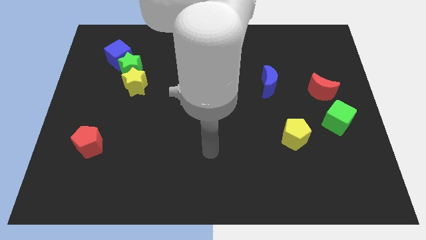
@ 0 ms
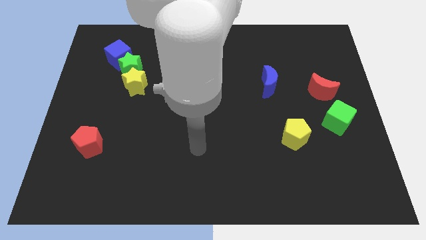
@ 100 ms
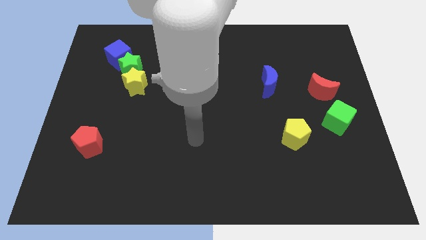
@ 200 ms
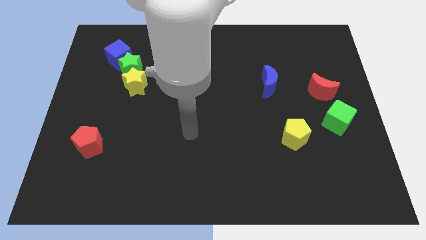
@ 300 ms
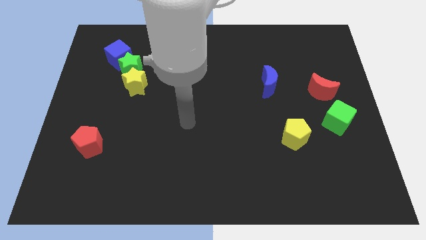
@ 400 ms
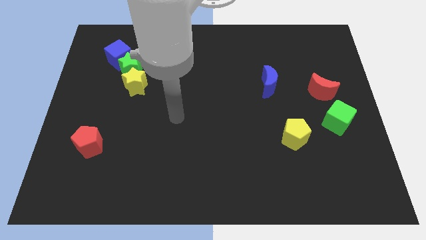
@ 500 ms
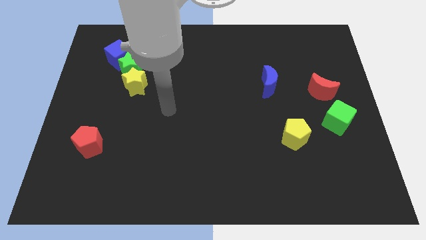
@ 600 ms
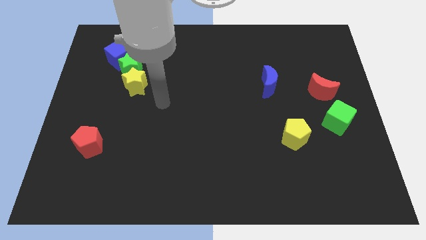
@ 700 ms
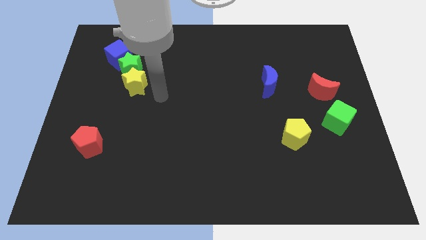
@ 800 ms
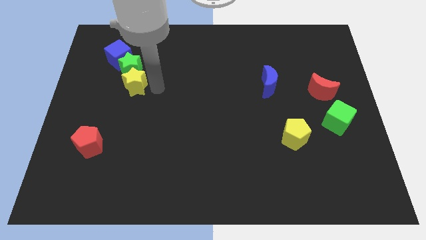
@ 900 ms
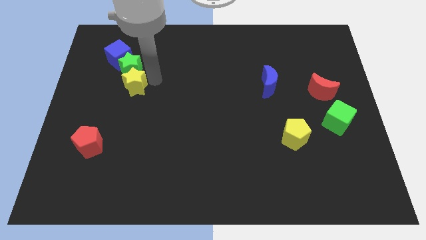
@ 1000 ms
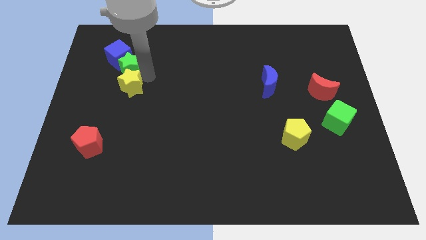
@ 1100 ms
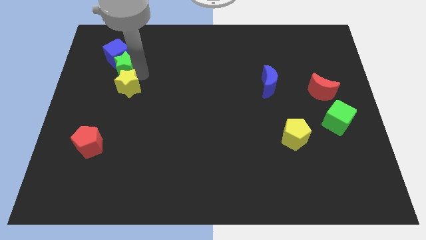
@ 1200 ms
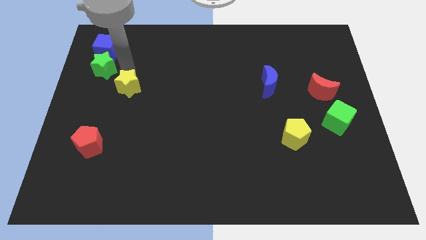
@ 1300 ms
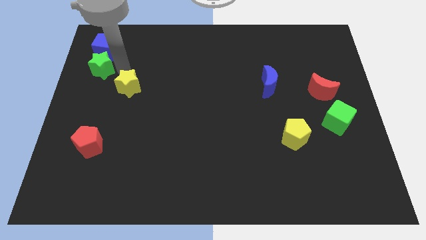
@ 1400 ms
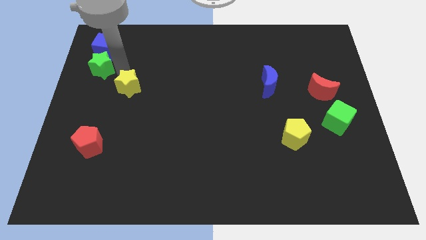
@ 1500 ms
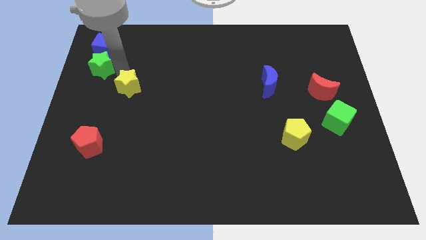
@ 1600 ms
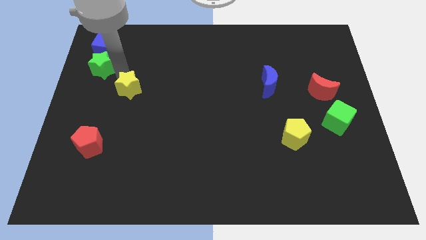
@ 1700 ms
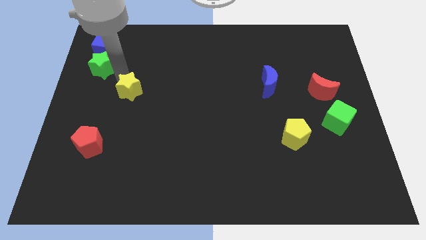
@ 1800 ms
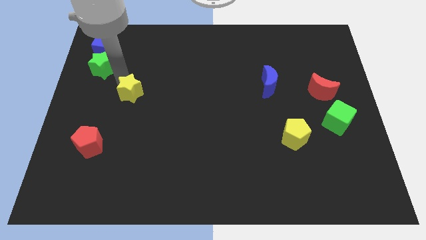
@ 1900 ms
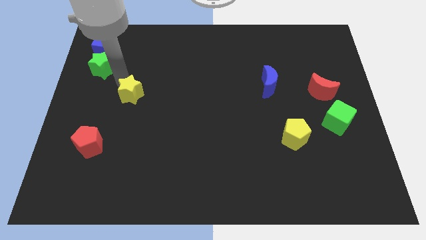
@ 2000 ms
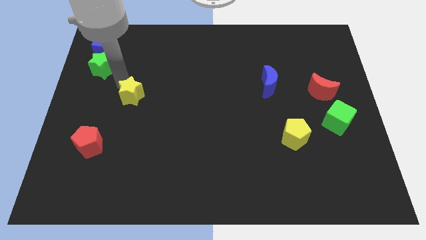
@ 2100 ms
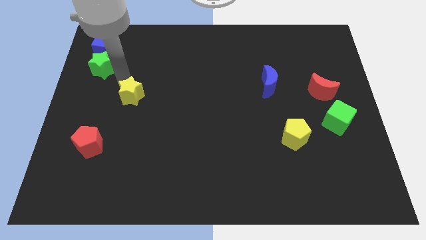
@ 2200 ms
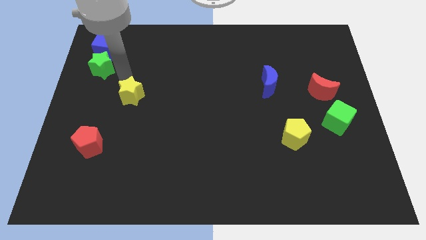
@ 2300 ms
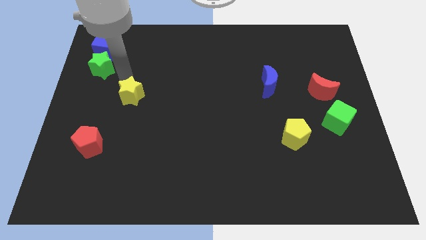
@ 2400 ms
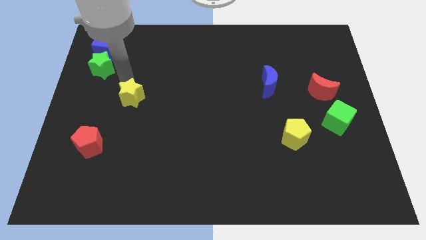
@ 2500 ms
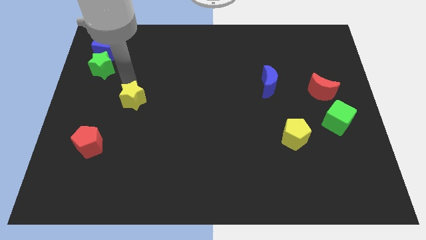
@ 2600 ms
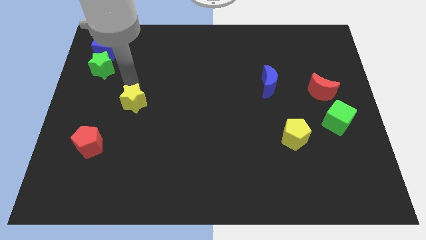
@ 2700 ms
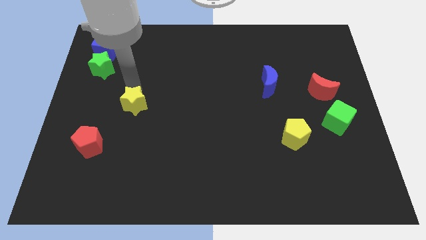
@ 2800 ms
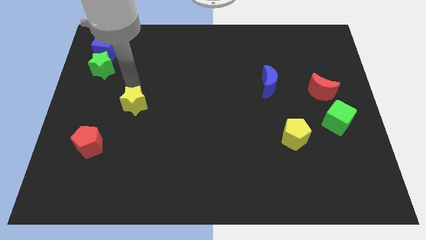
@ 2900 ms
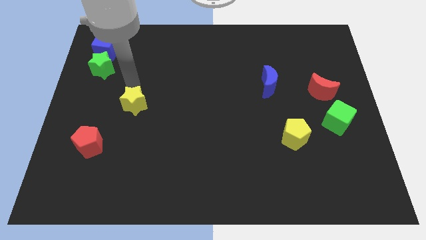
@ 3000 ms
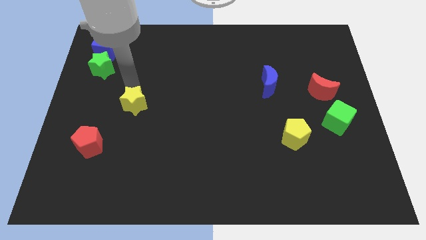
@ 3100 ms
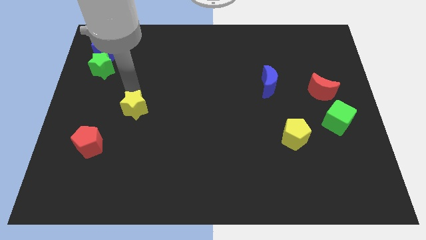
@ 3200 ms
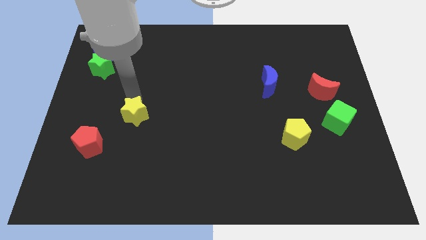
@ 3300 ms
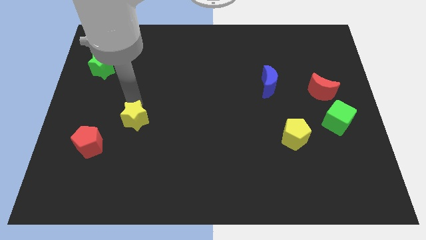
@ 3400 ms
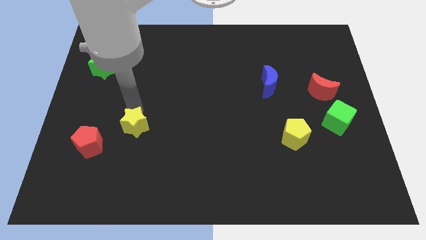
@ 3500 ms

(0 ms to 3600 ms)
move the yellow star just right of the red pentagon

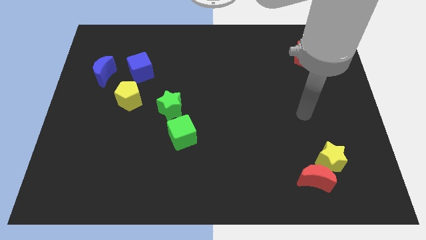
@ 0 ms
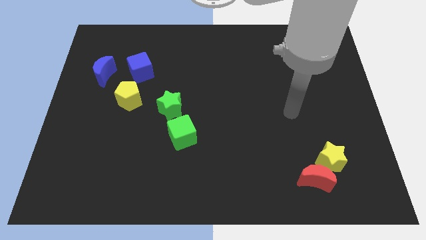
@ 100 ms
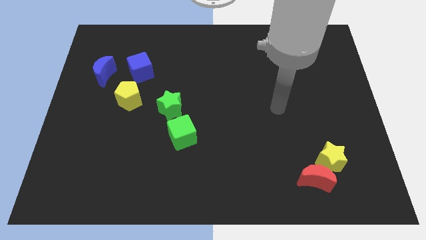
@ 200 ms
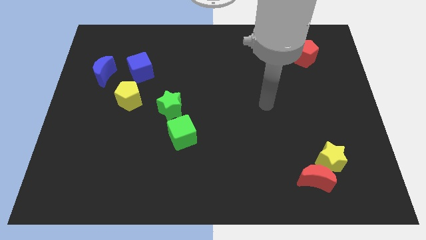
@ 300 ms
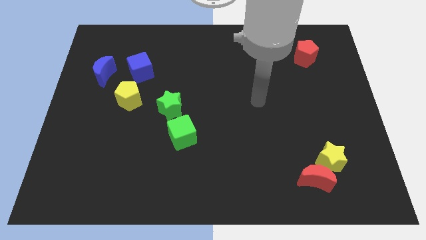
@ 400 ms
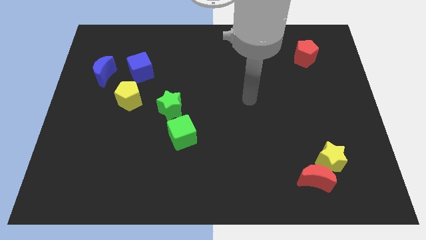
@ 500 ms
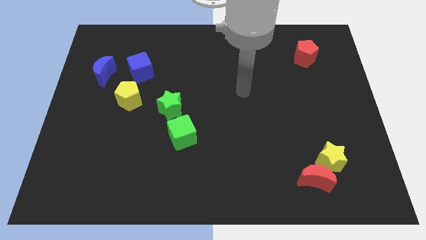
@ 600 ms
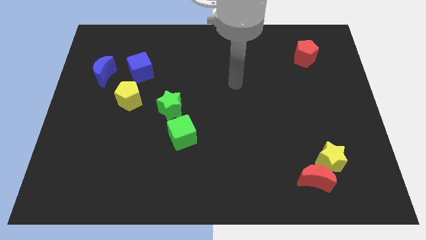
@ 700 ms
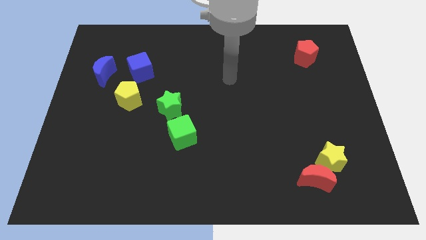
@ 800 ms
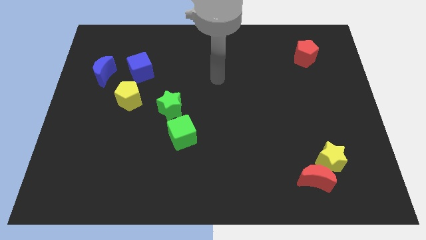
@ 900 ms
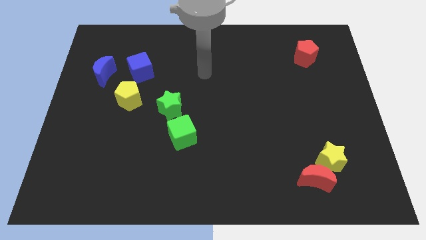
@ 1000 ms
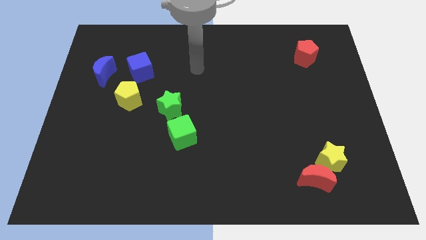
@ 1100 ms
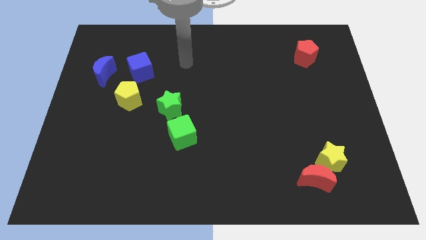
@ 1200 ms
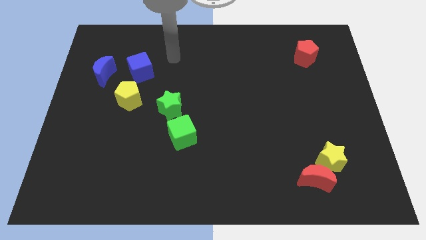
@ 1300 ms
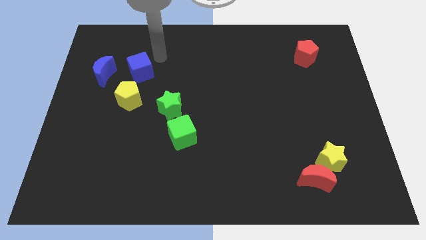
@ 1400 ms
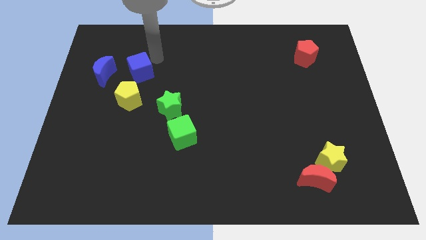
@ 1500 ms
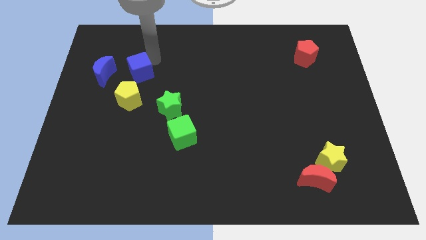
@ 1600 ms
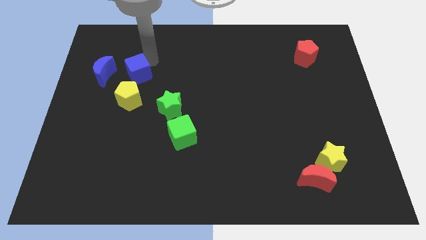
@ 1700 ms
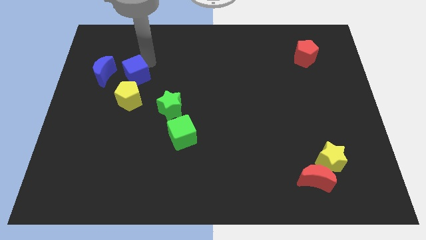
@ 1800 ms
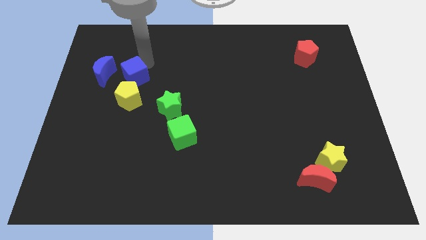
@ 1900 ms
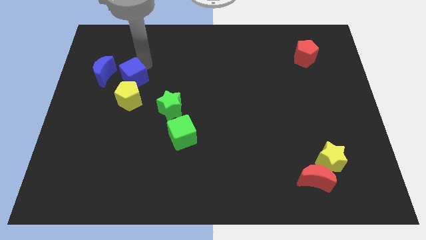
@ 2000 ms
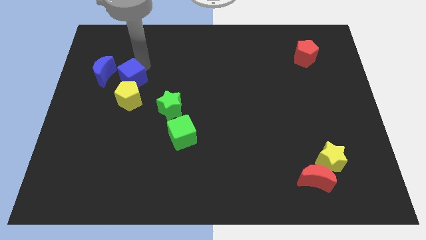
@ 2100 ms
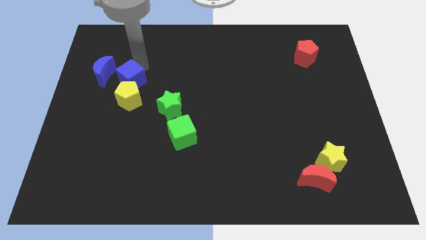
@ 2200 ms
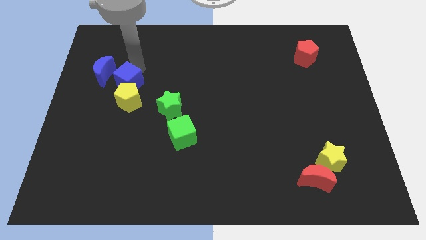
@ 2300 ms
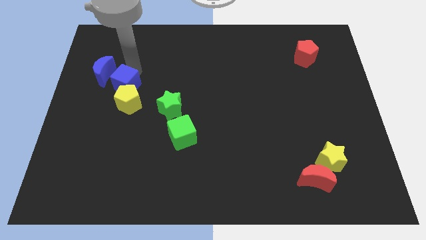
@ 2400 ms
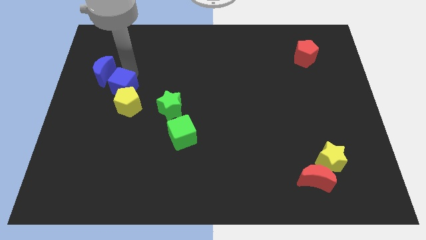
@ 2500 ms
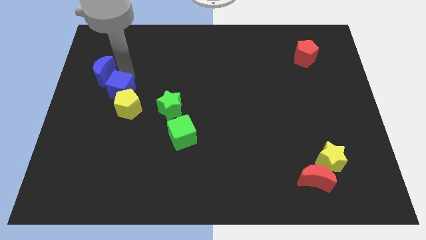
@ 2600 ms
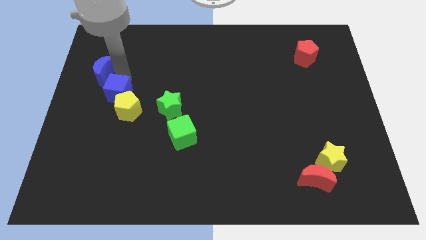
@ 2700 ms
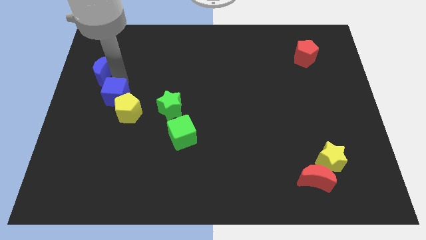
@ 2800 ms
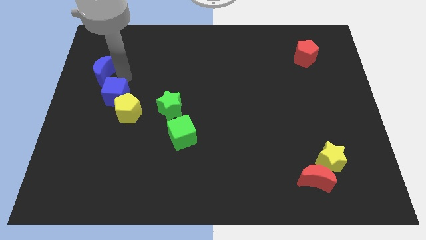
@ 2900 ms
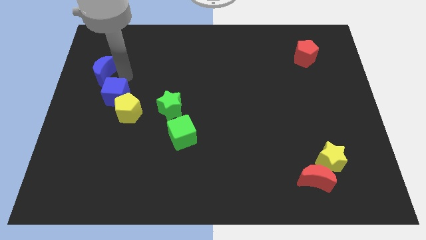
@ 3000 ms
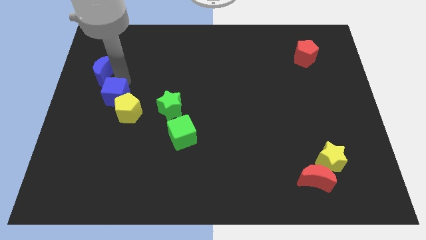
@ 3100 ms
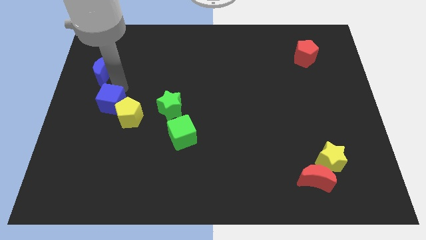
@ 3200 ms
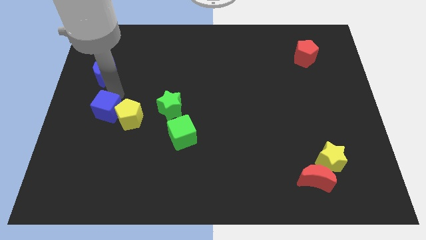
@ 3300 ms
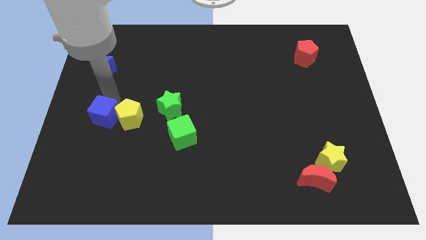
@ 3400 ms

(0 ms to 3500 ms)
put the blue cube to the bottom left side of the yellow pentagon

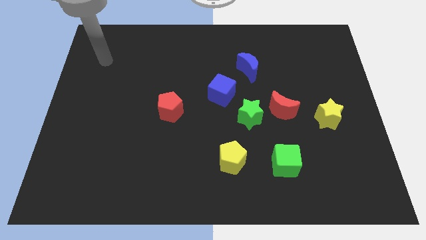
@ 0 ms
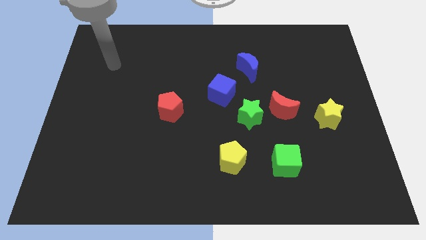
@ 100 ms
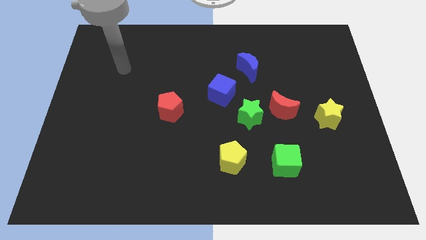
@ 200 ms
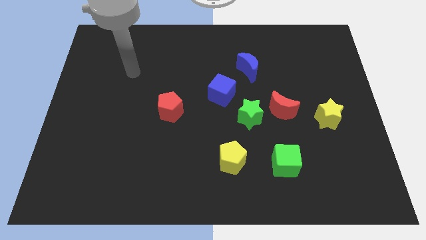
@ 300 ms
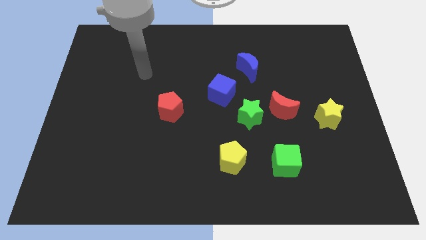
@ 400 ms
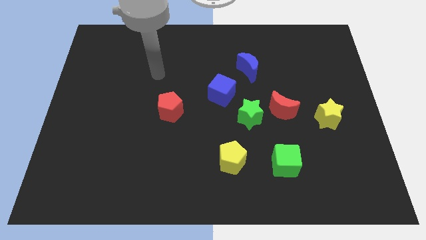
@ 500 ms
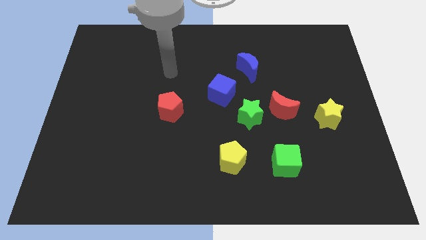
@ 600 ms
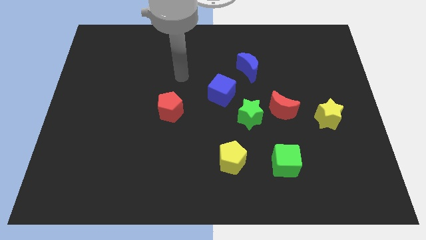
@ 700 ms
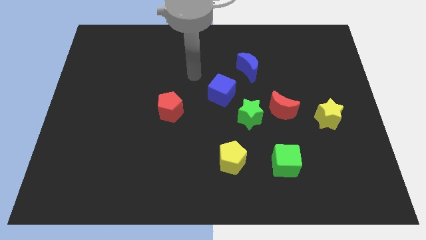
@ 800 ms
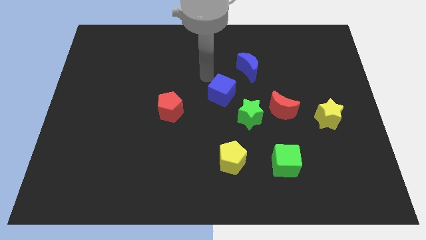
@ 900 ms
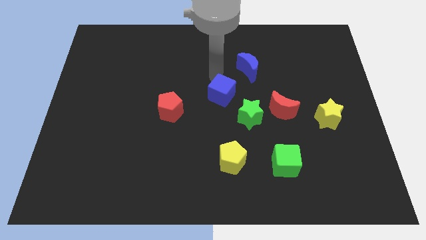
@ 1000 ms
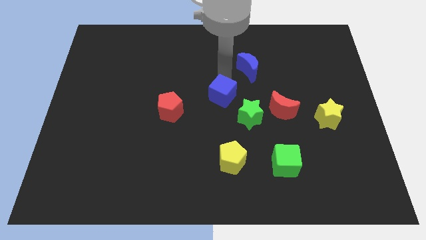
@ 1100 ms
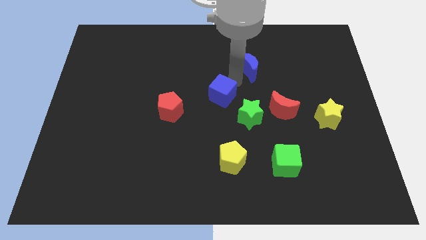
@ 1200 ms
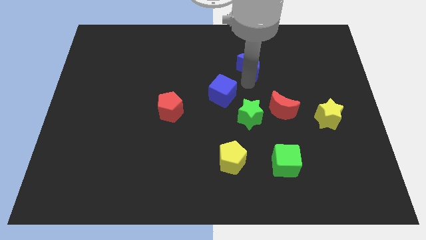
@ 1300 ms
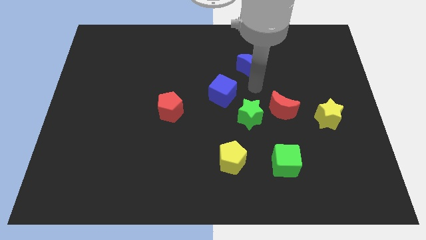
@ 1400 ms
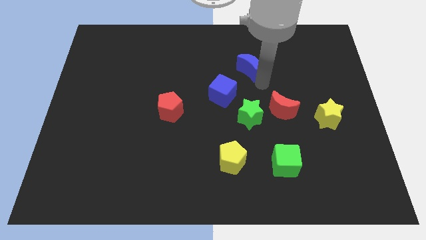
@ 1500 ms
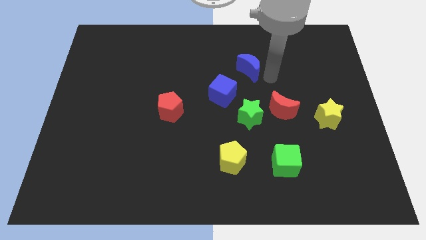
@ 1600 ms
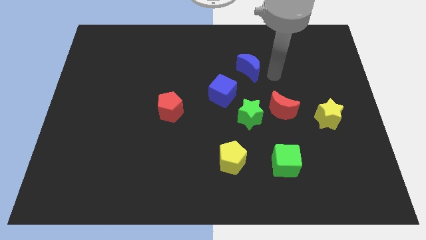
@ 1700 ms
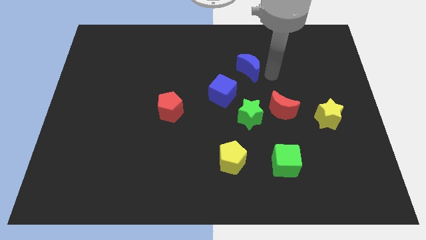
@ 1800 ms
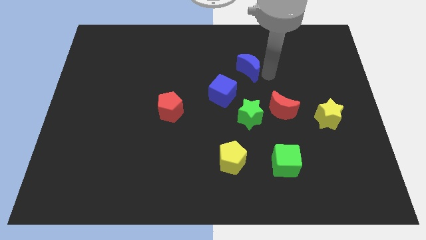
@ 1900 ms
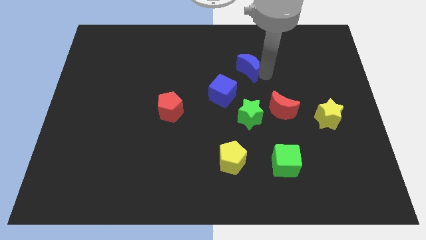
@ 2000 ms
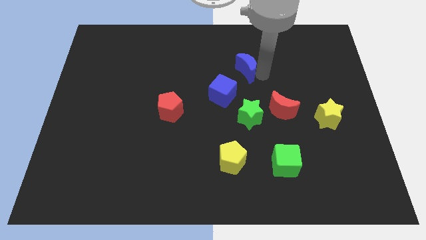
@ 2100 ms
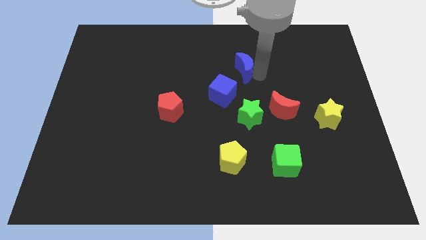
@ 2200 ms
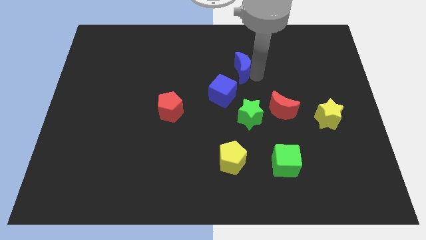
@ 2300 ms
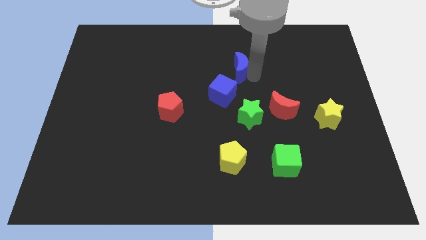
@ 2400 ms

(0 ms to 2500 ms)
push the blue moon above the blue cube
